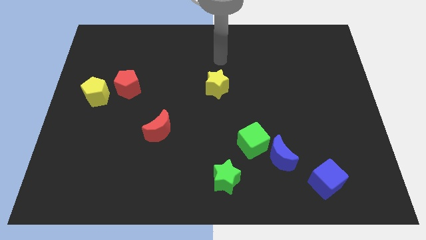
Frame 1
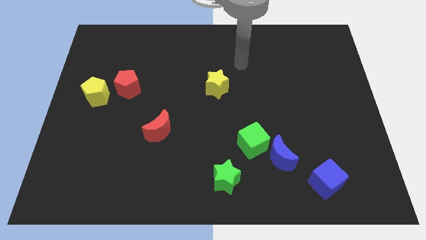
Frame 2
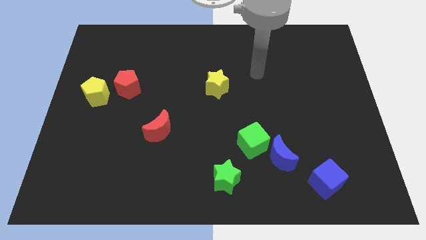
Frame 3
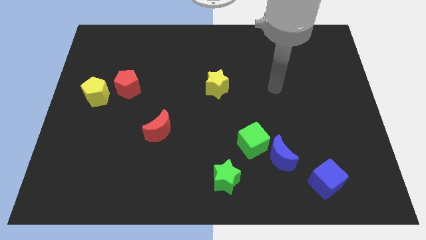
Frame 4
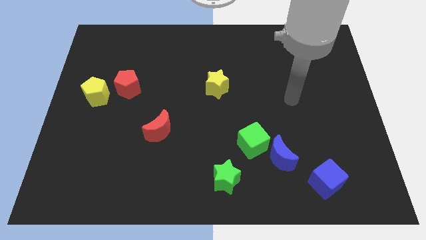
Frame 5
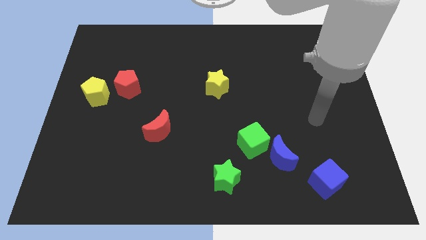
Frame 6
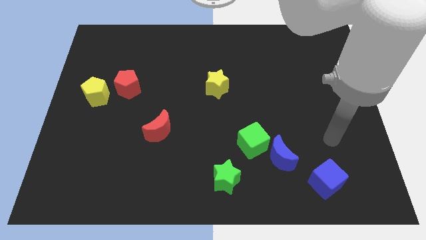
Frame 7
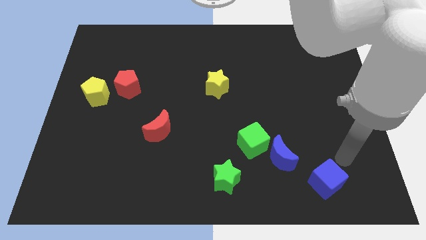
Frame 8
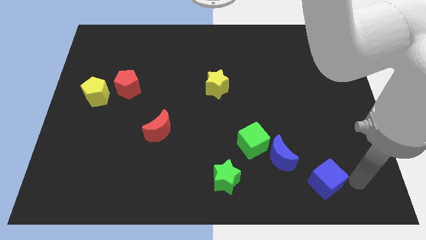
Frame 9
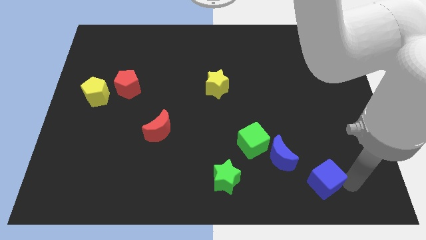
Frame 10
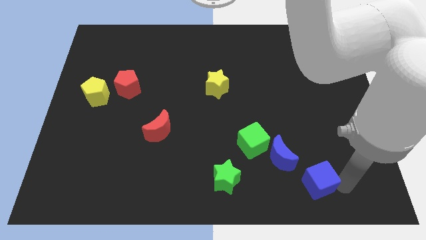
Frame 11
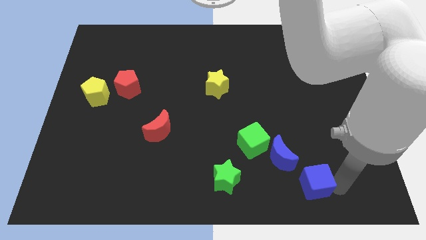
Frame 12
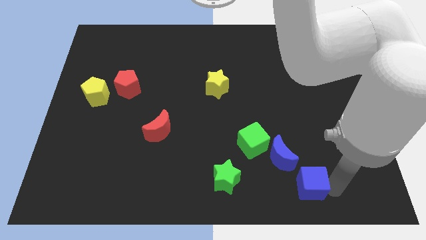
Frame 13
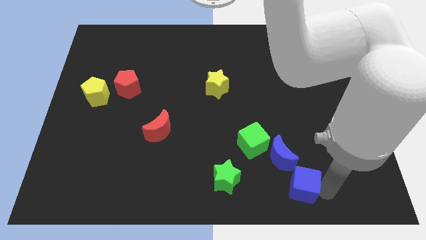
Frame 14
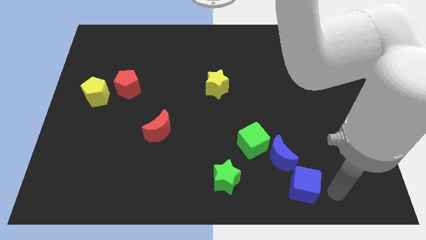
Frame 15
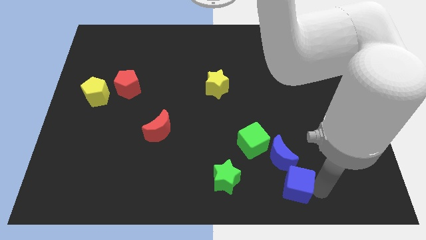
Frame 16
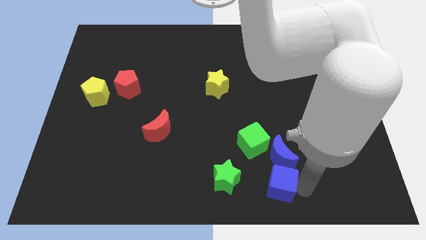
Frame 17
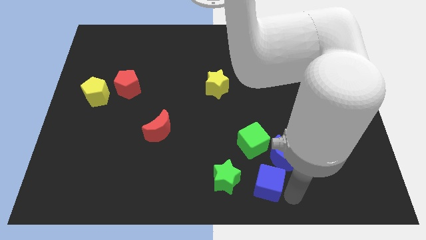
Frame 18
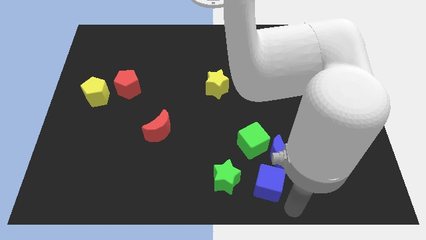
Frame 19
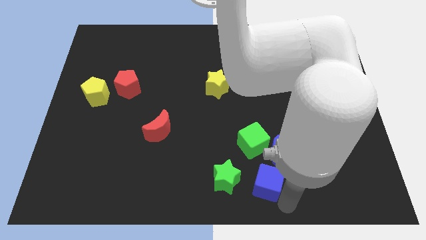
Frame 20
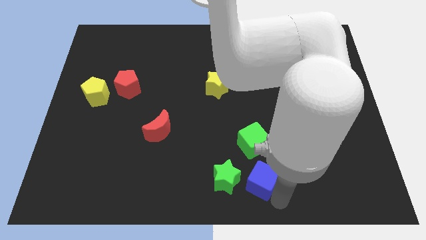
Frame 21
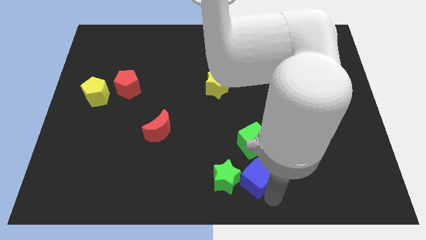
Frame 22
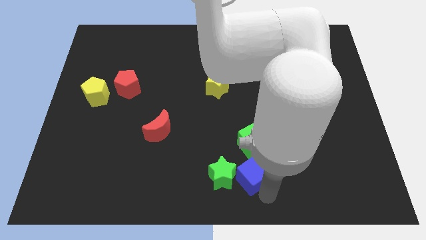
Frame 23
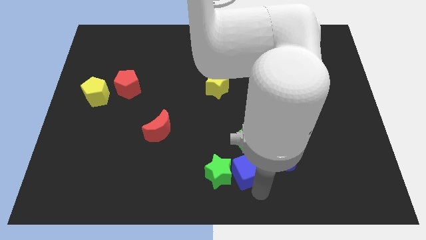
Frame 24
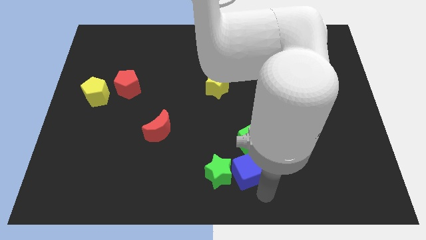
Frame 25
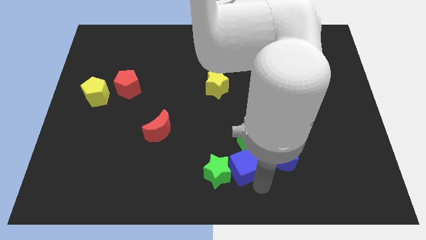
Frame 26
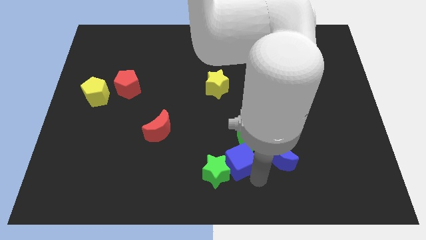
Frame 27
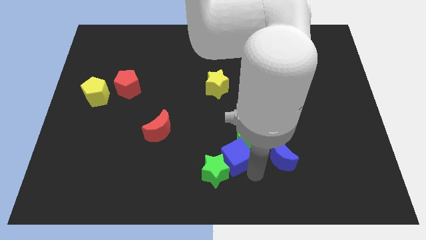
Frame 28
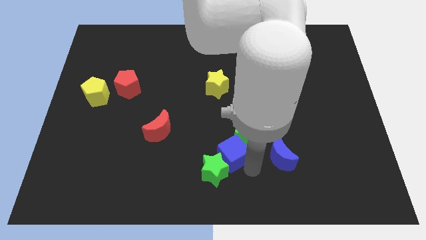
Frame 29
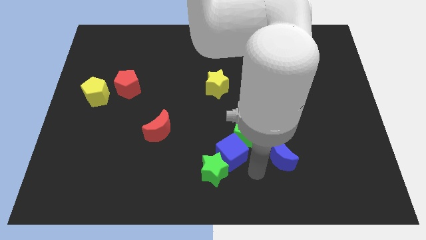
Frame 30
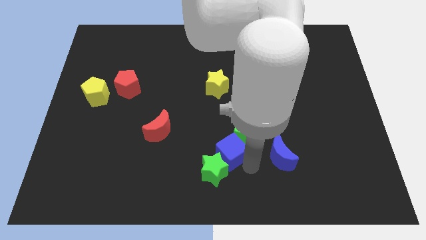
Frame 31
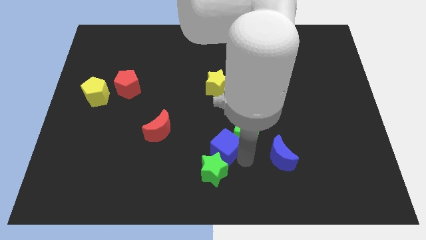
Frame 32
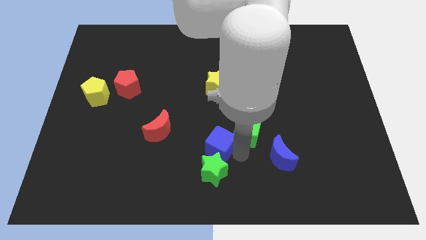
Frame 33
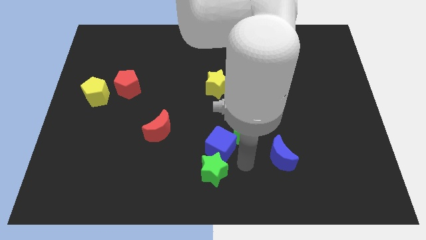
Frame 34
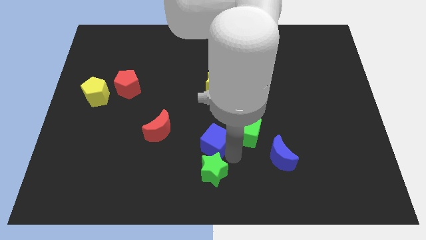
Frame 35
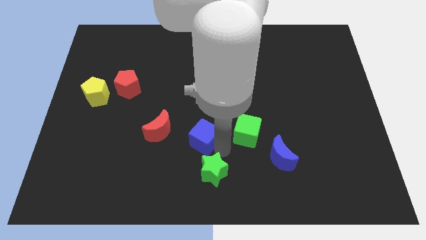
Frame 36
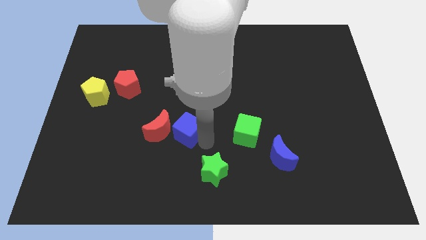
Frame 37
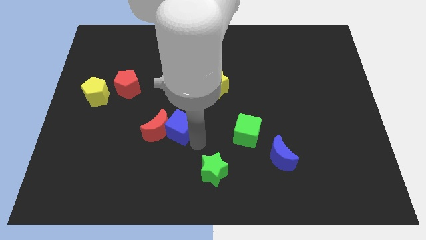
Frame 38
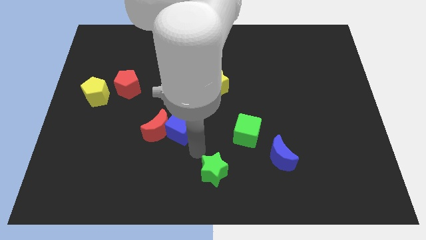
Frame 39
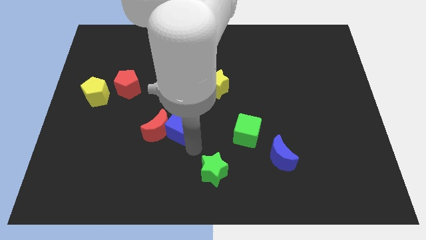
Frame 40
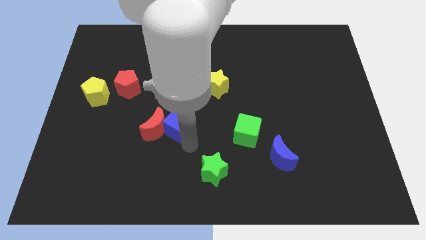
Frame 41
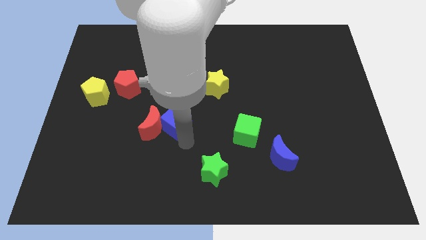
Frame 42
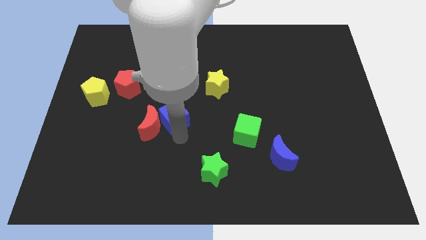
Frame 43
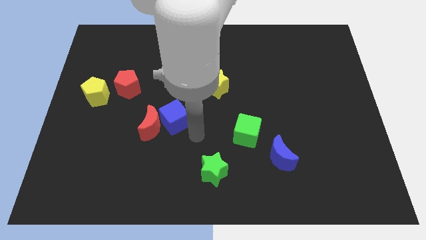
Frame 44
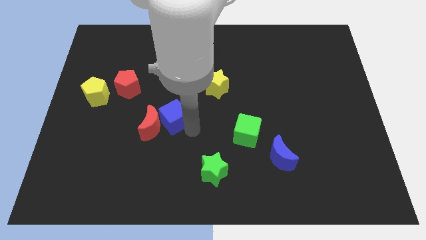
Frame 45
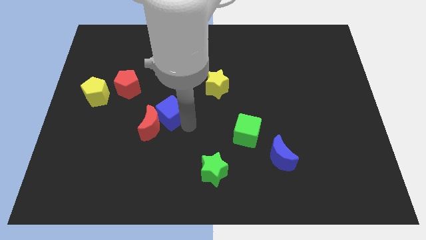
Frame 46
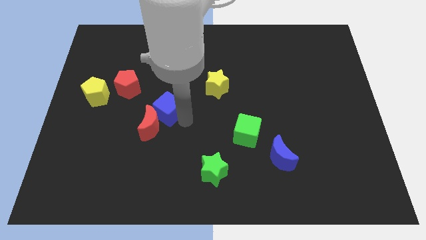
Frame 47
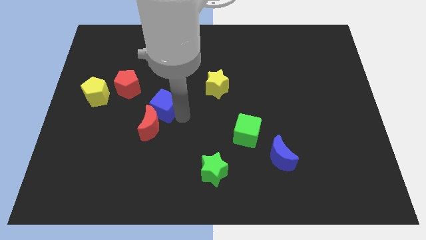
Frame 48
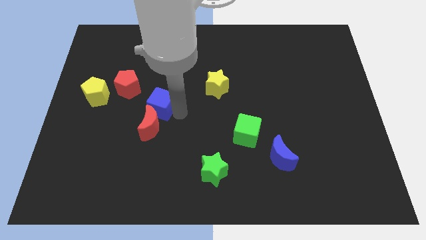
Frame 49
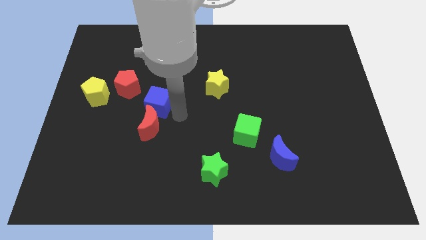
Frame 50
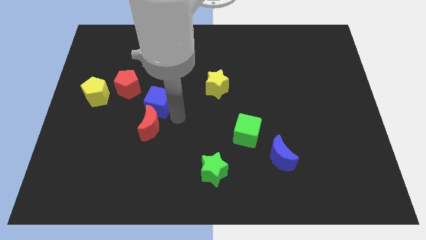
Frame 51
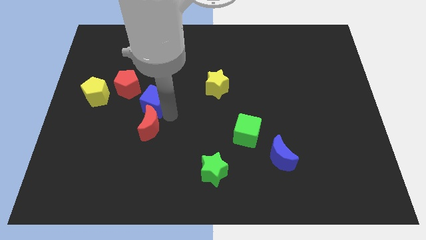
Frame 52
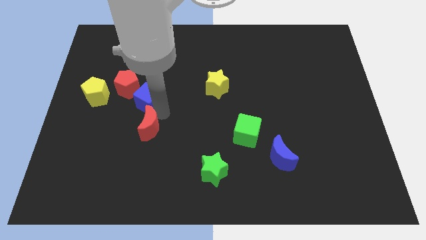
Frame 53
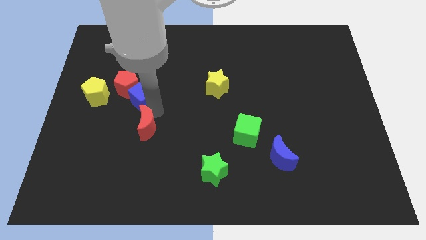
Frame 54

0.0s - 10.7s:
move the blue cube close to the red pentagon

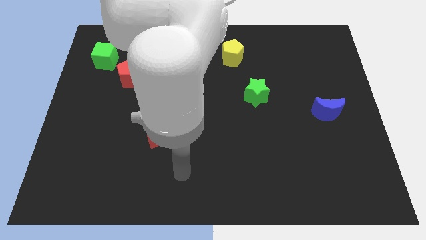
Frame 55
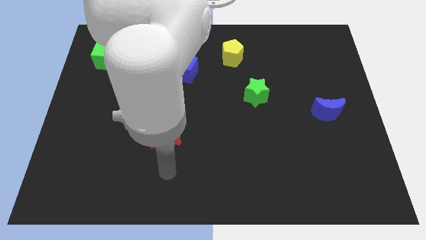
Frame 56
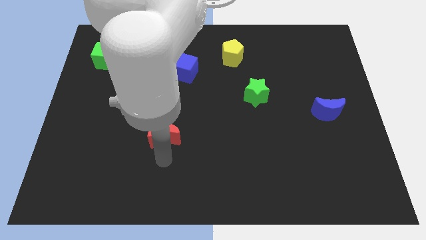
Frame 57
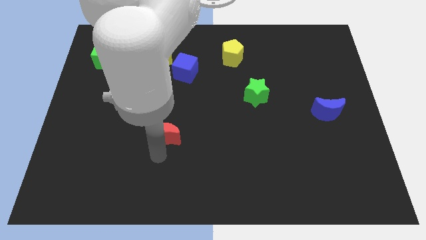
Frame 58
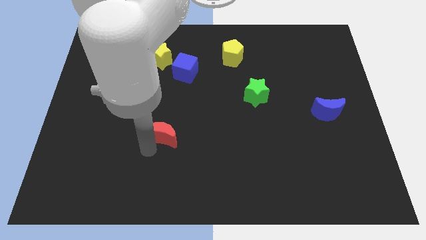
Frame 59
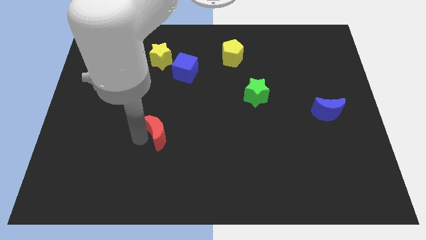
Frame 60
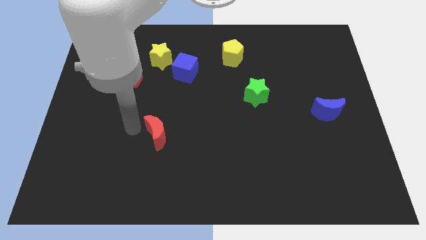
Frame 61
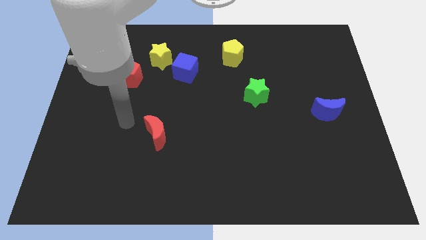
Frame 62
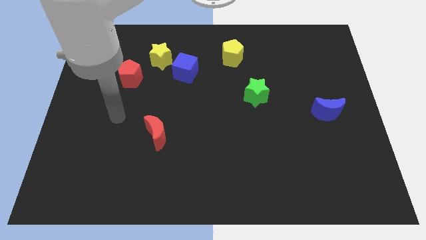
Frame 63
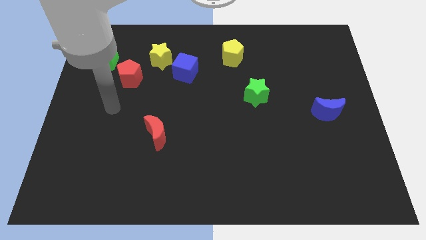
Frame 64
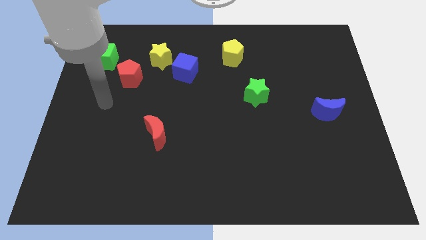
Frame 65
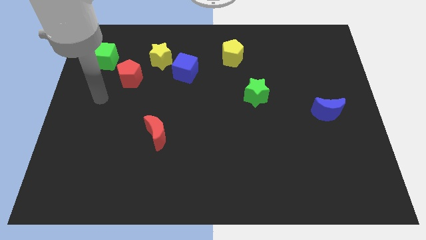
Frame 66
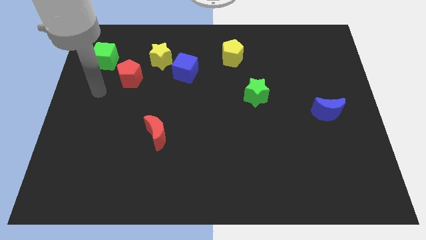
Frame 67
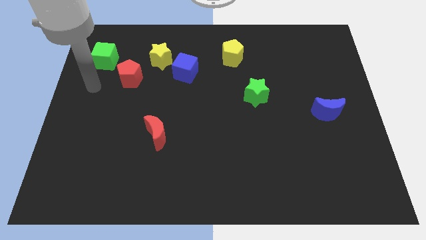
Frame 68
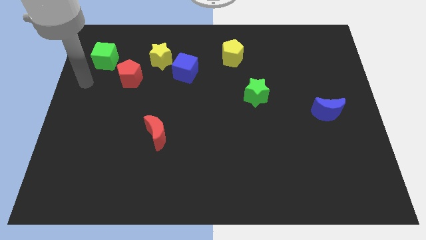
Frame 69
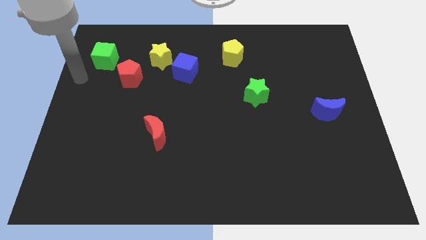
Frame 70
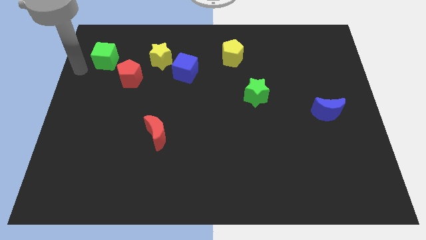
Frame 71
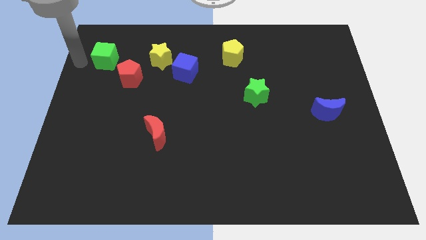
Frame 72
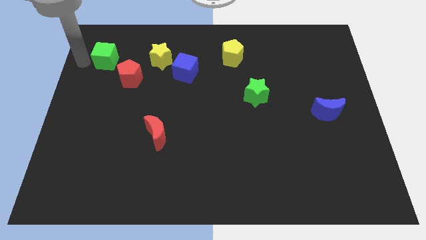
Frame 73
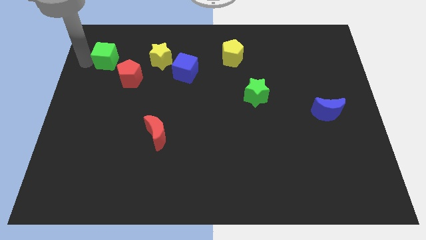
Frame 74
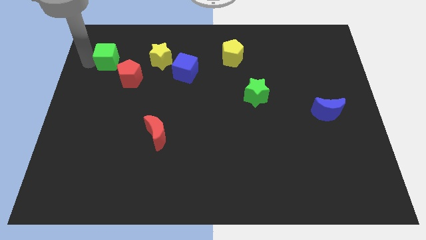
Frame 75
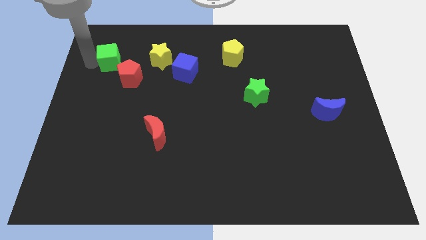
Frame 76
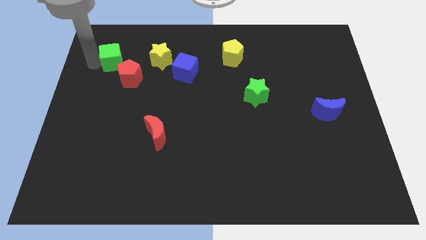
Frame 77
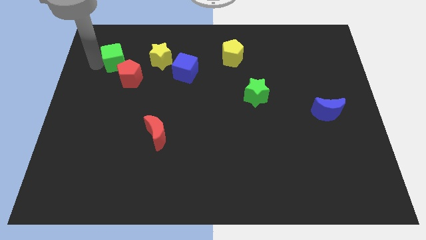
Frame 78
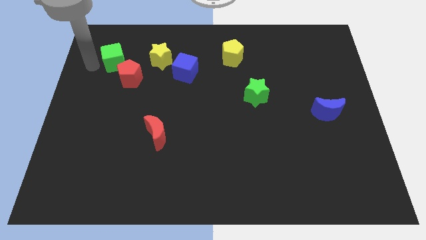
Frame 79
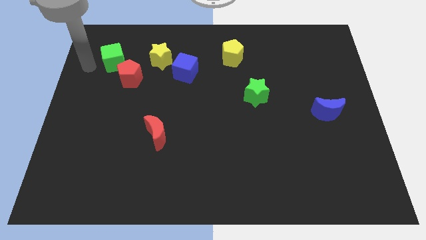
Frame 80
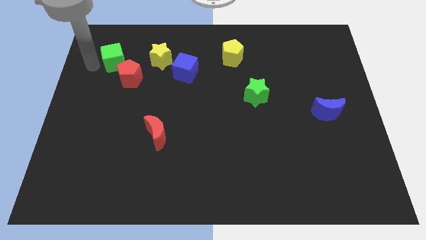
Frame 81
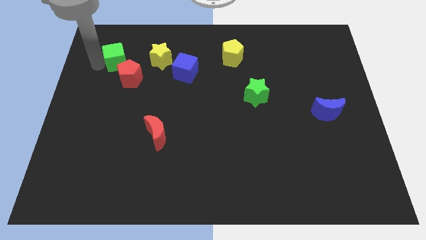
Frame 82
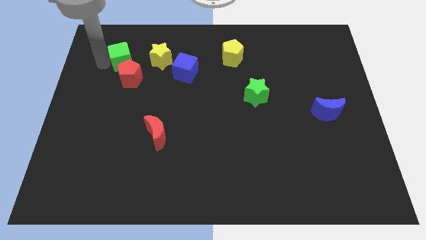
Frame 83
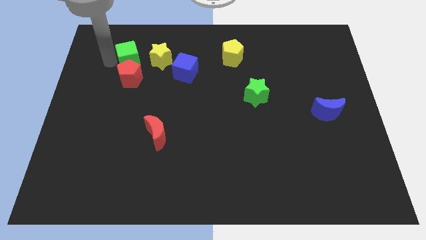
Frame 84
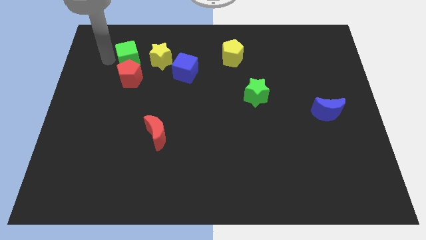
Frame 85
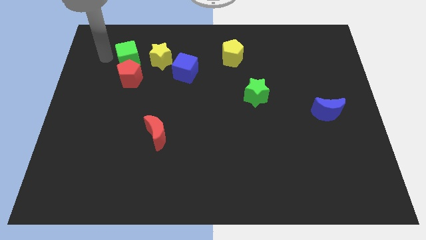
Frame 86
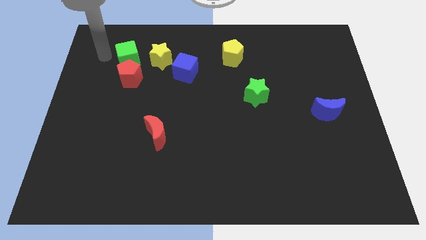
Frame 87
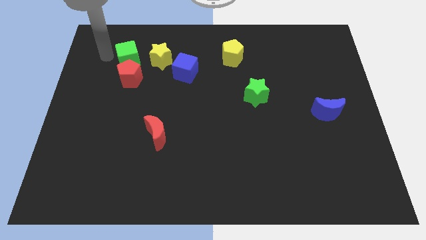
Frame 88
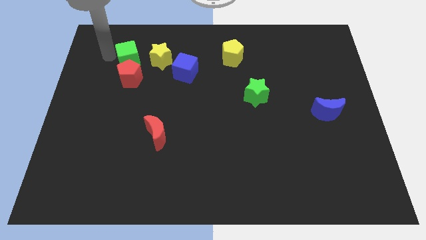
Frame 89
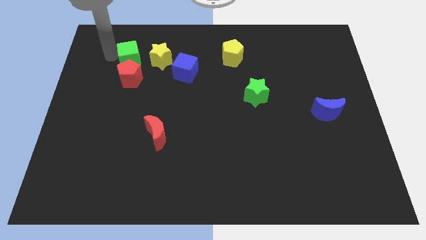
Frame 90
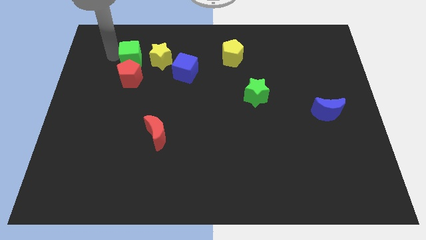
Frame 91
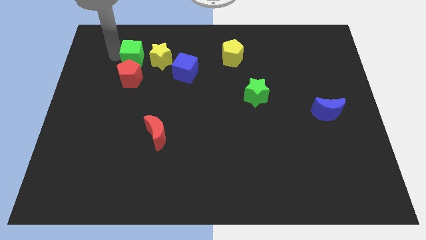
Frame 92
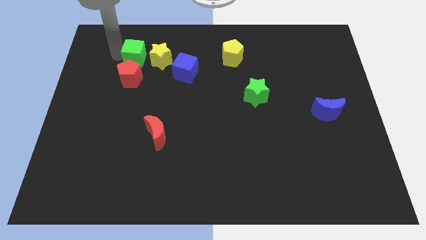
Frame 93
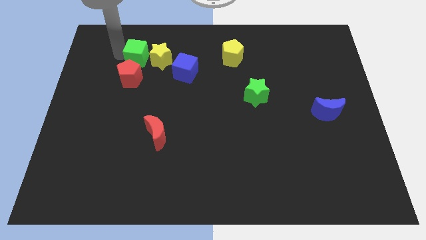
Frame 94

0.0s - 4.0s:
push the green cube to the yellow star
